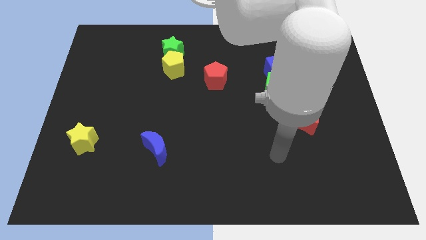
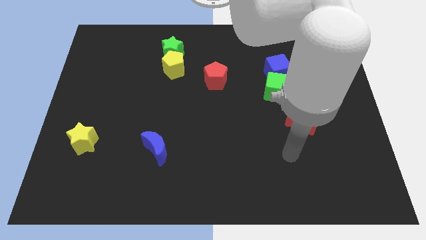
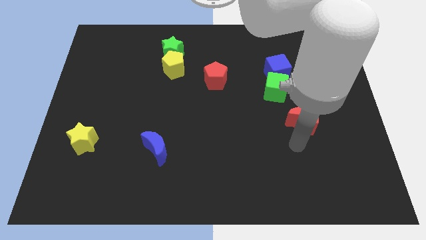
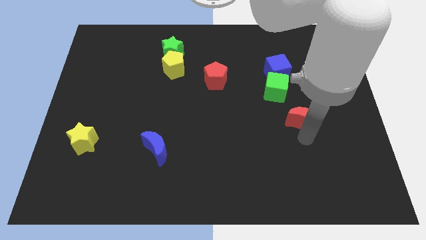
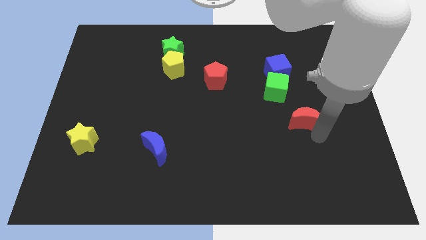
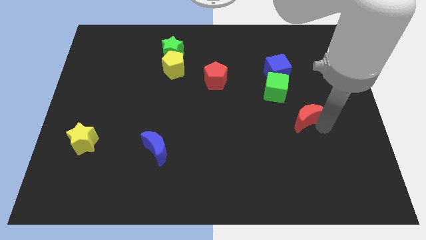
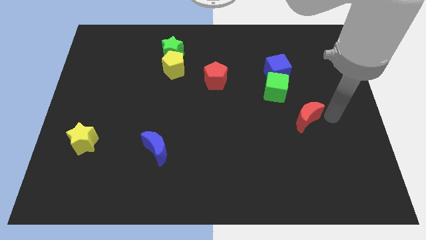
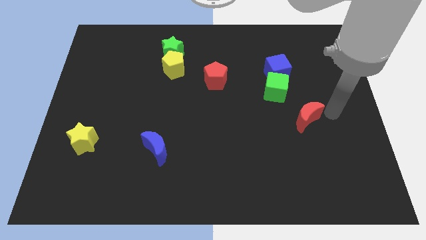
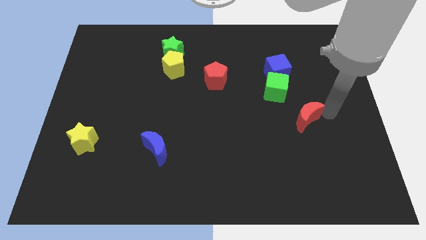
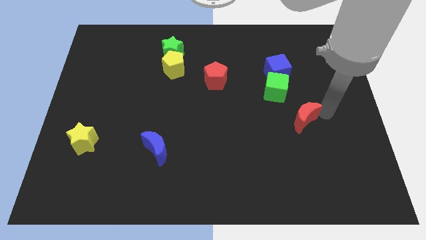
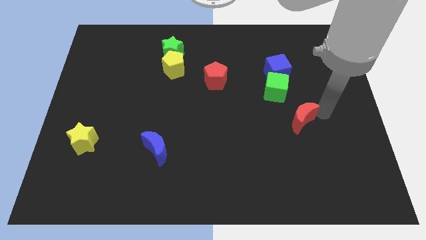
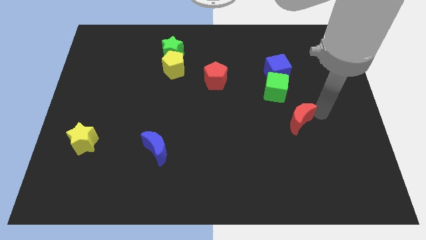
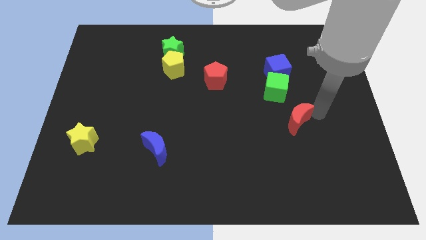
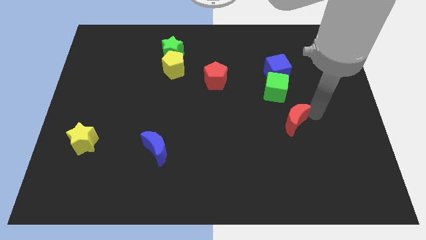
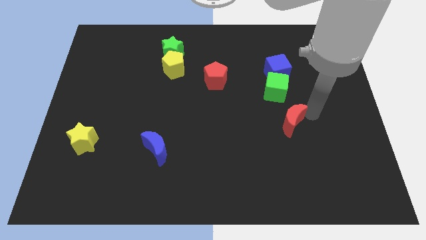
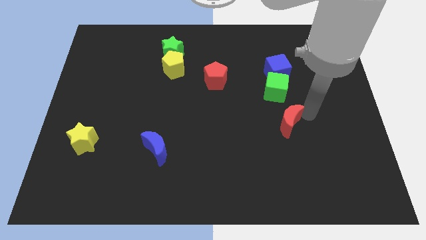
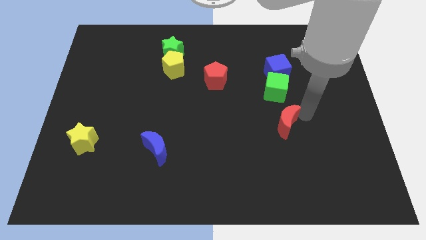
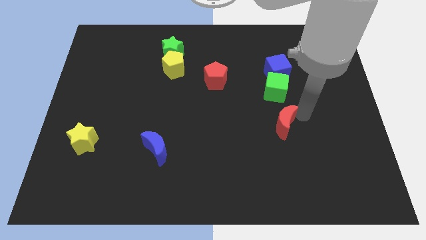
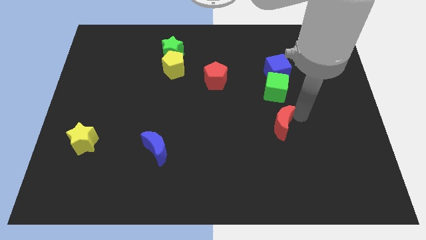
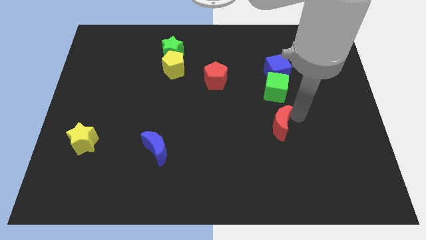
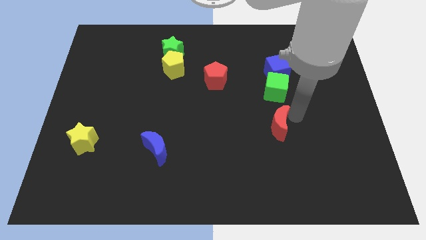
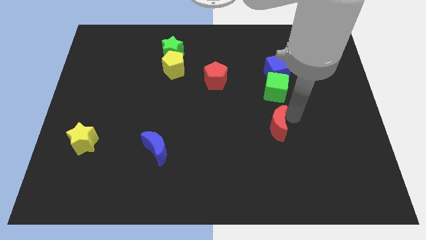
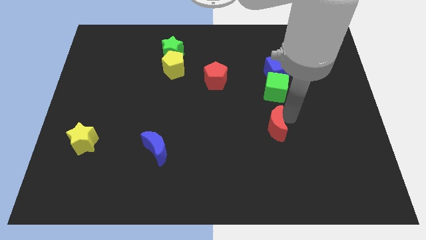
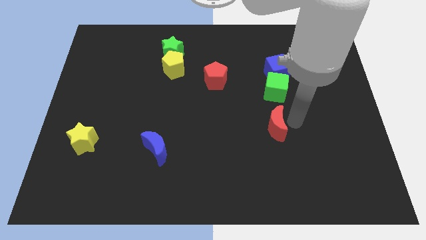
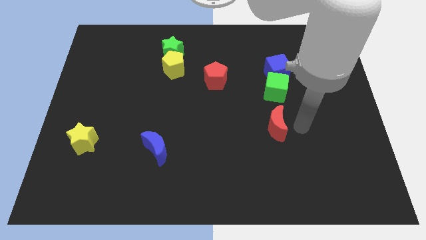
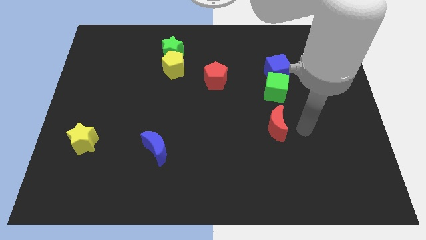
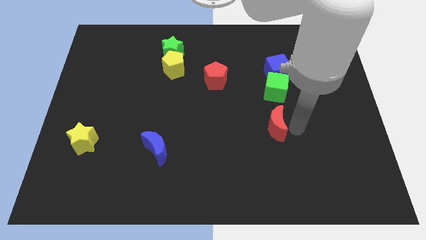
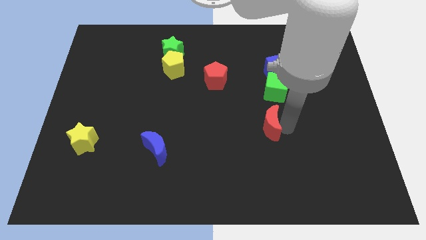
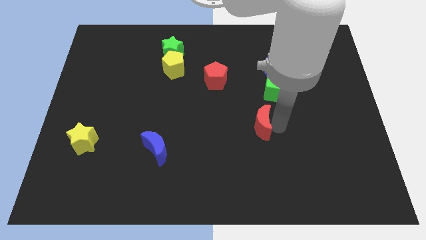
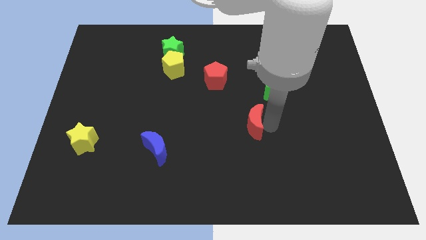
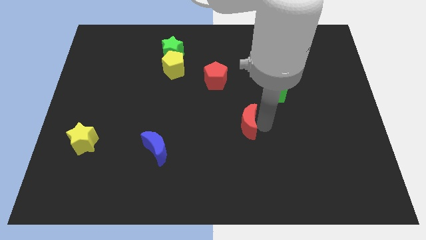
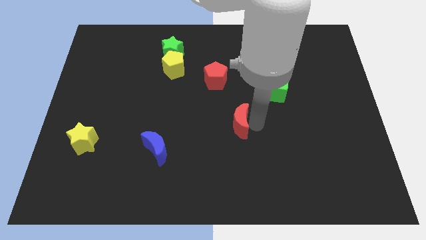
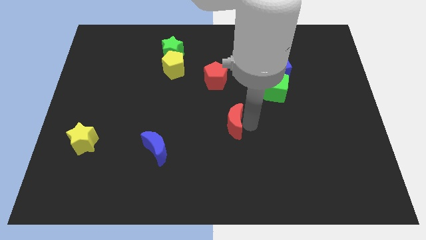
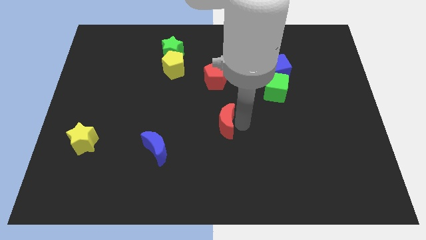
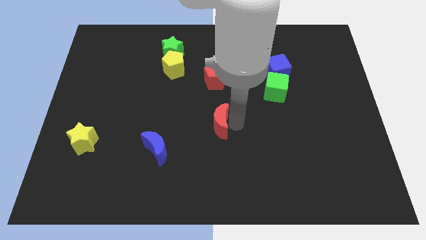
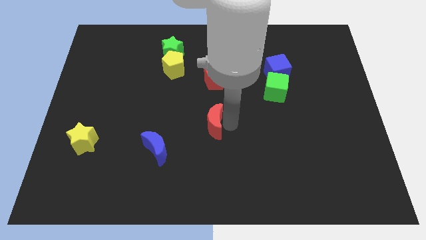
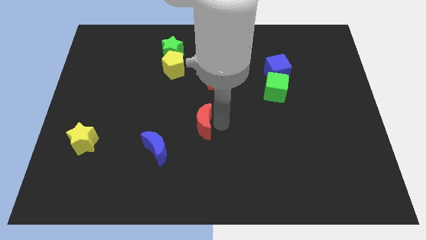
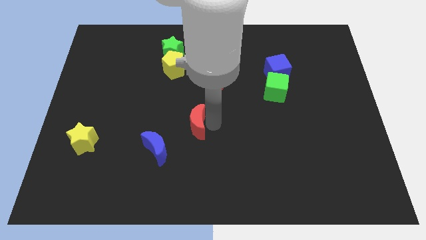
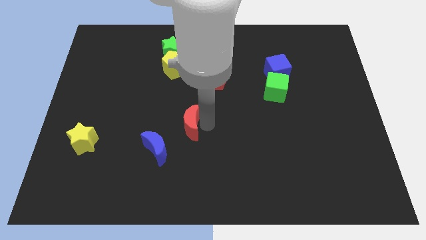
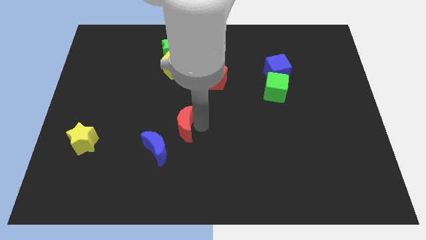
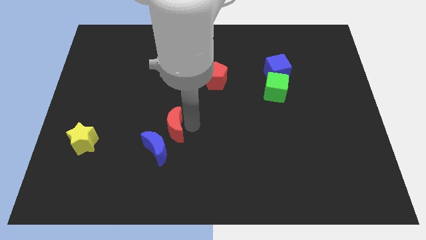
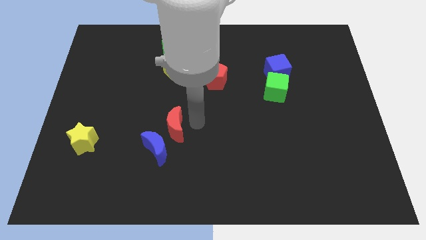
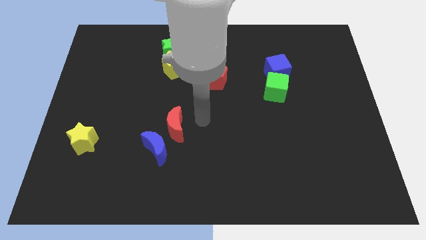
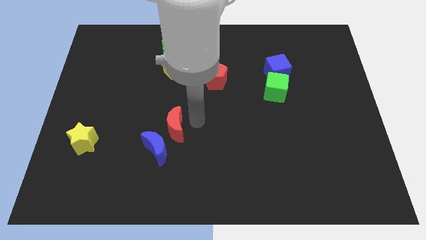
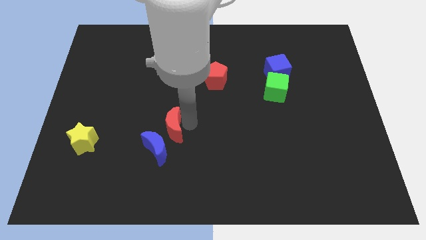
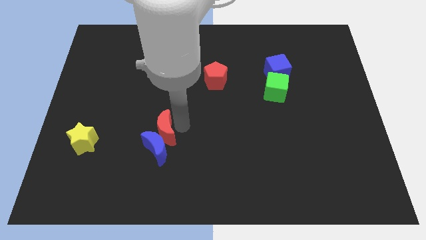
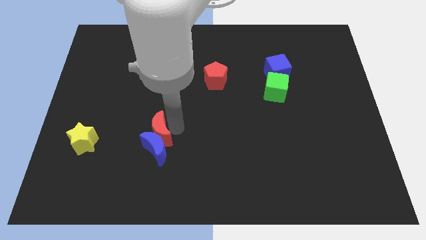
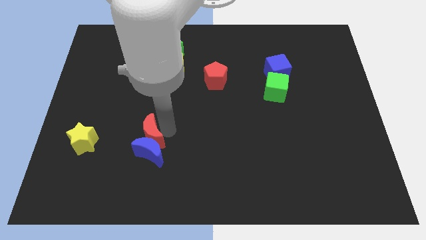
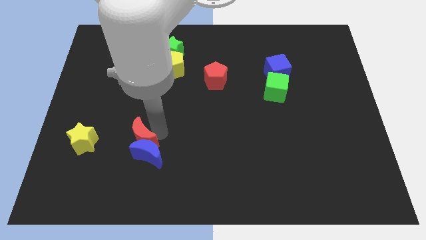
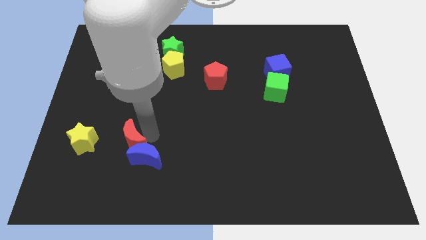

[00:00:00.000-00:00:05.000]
put the red moon to the left side of the blue moon

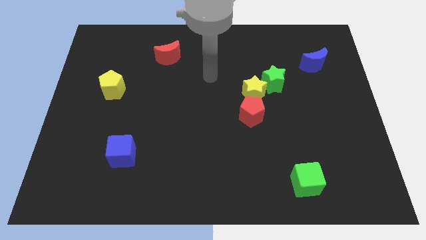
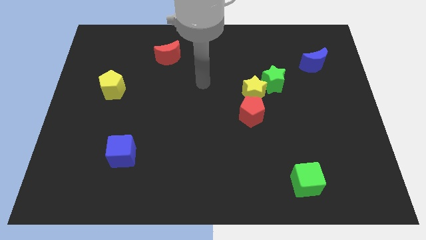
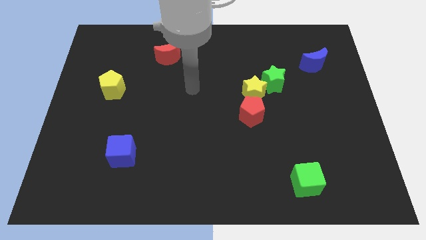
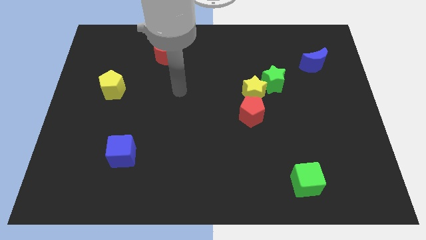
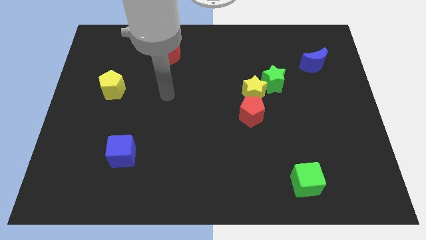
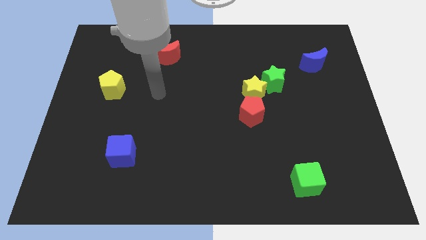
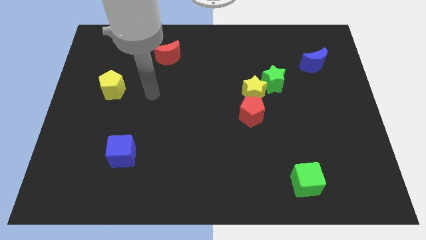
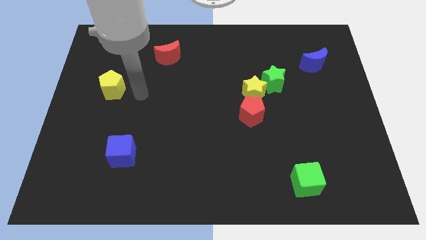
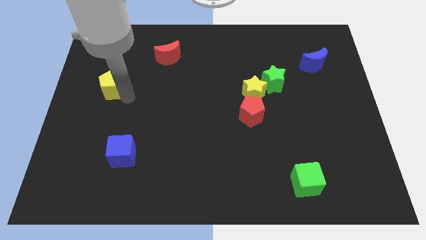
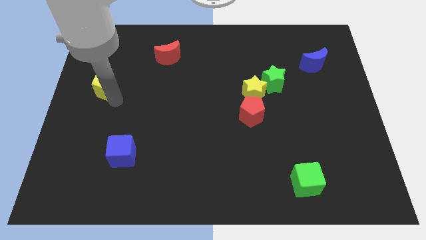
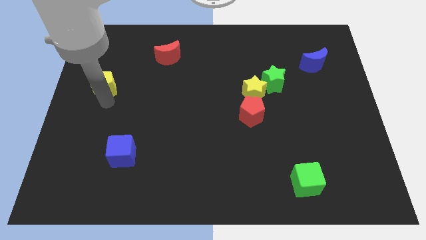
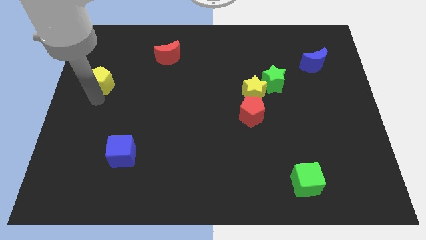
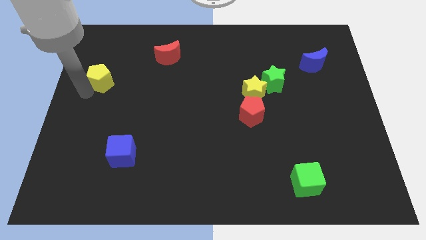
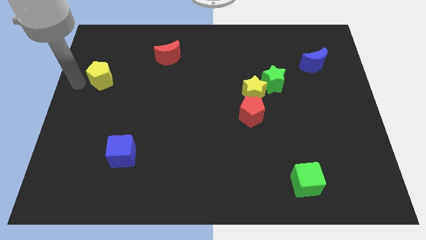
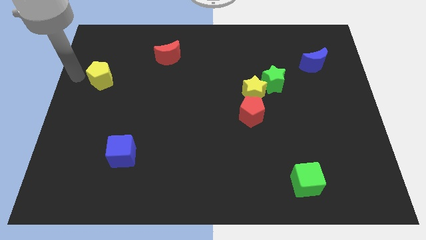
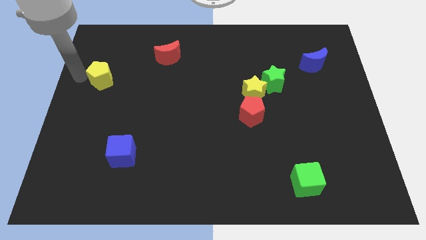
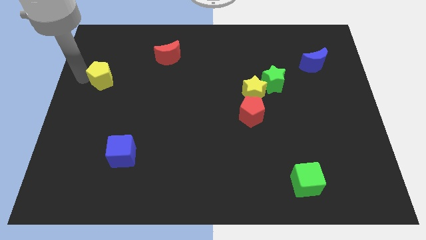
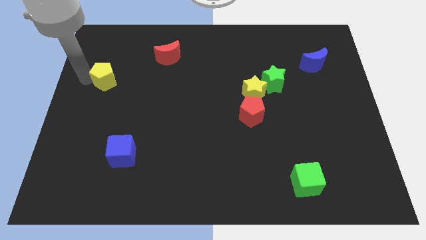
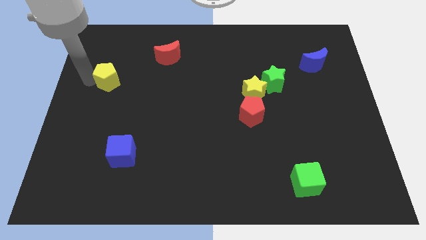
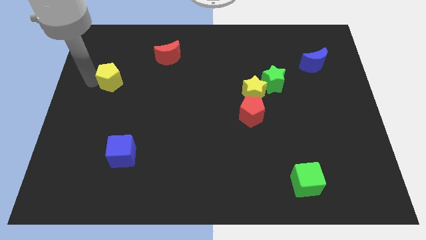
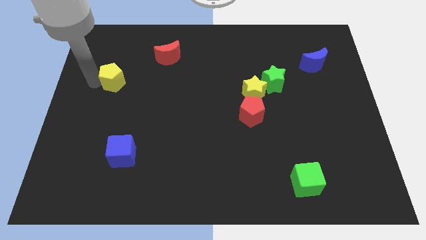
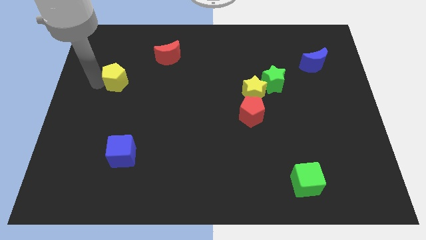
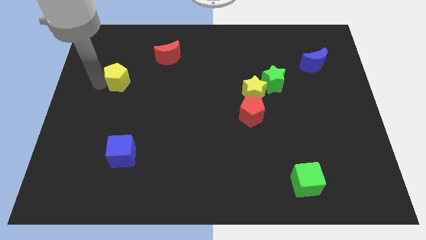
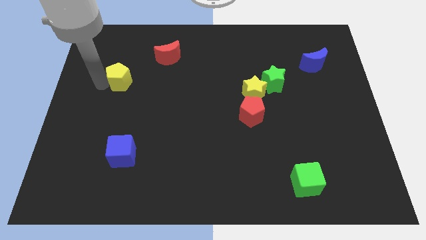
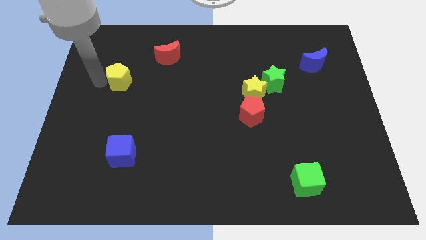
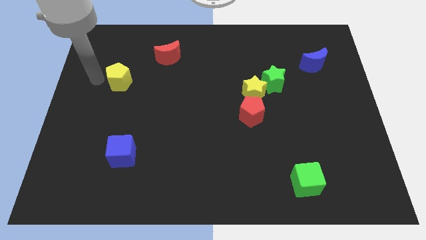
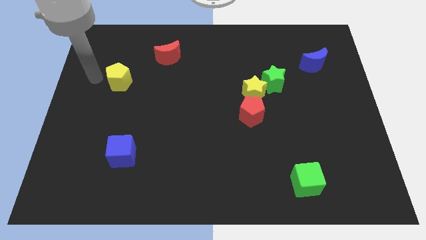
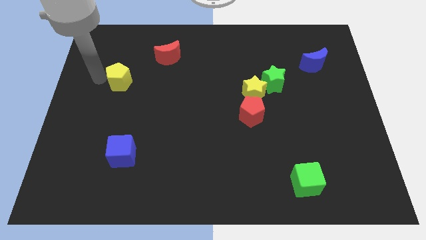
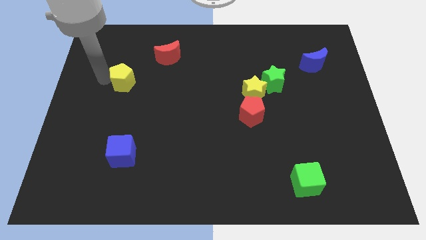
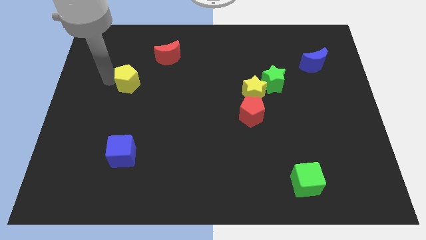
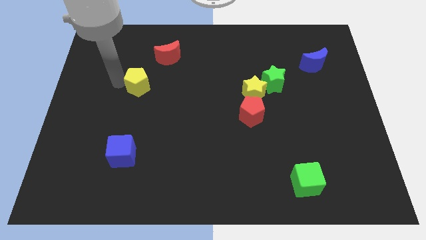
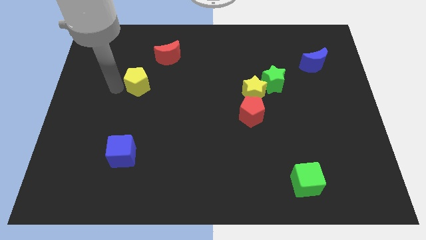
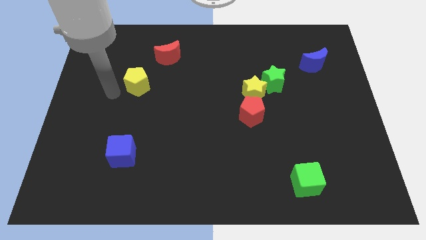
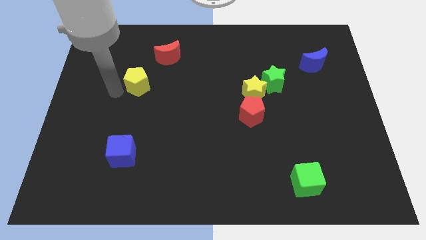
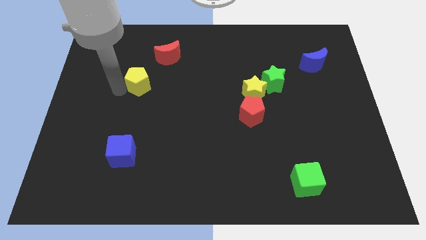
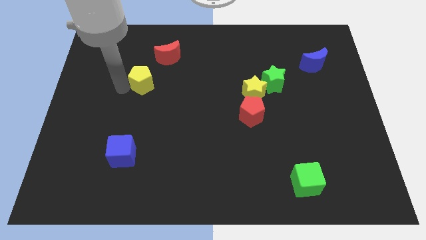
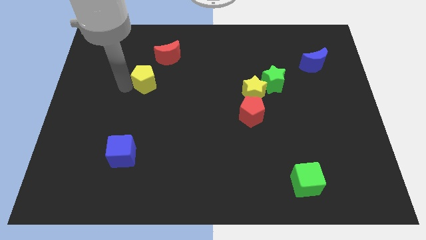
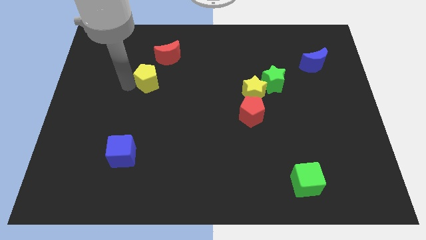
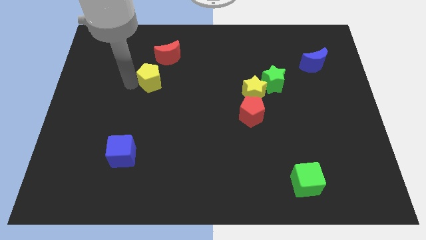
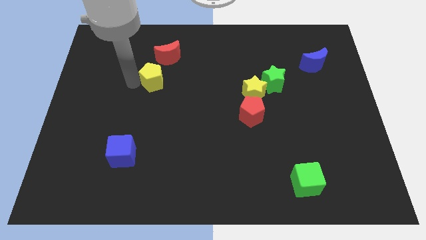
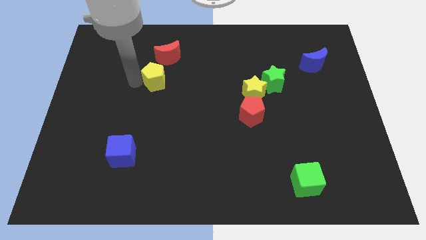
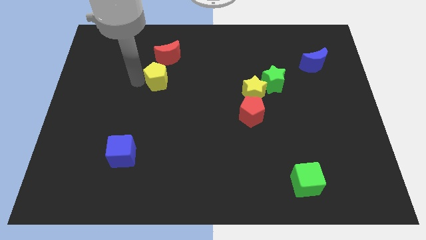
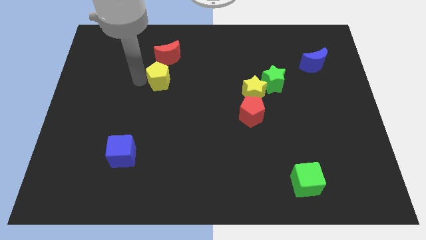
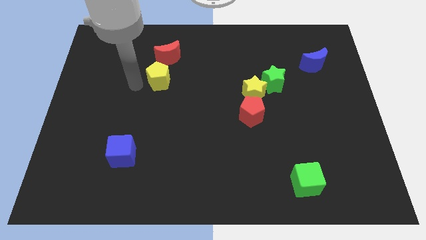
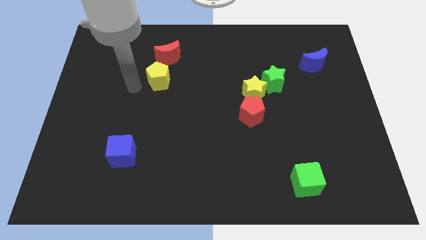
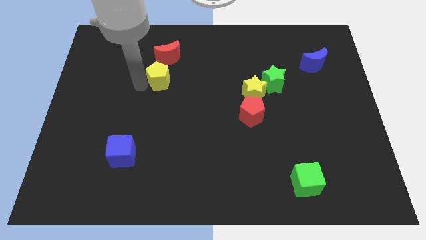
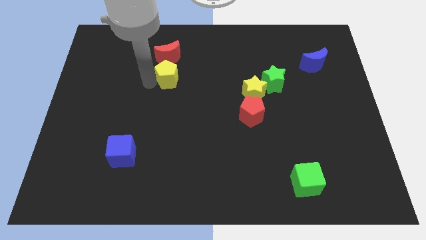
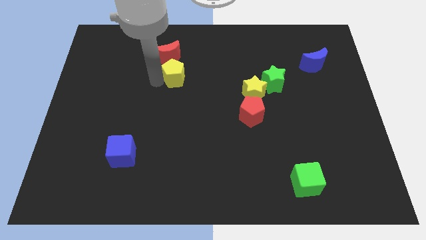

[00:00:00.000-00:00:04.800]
put the yellow pentagon to the bottom right of the red moon
